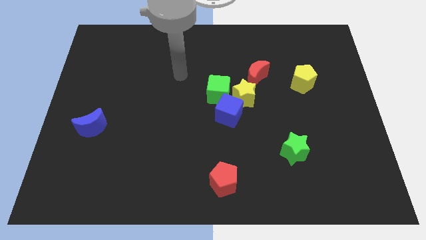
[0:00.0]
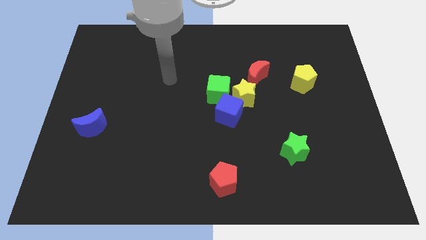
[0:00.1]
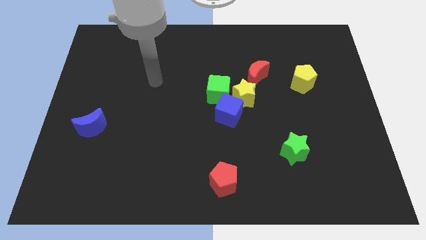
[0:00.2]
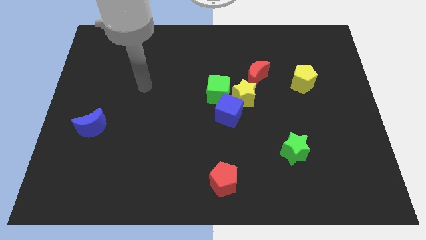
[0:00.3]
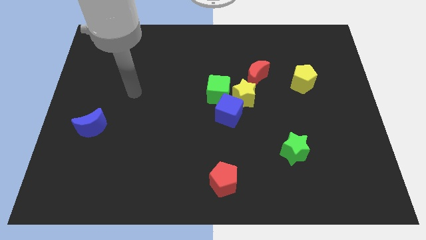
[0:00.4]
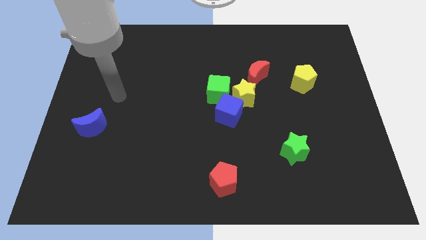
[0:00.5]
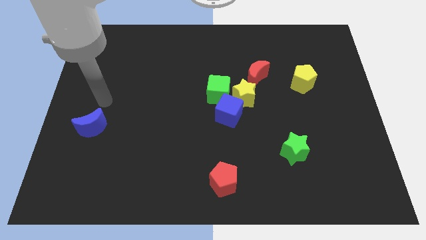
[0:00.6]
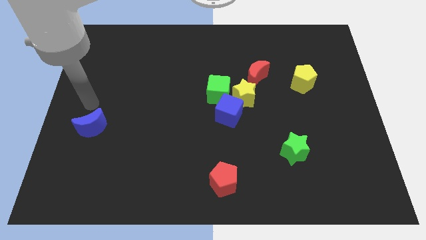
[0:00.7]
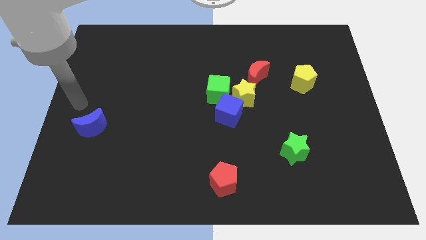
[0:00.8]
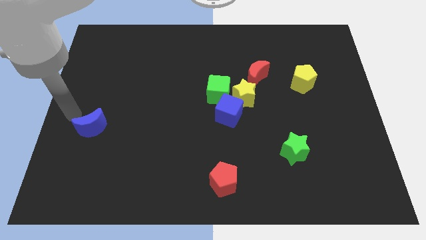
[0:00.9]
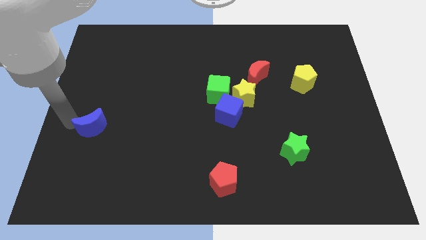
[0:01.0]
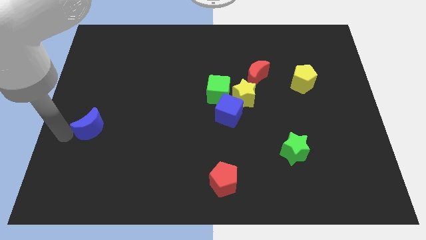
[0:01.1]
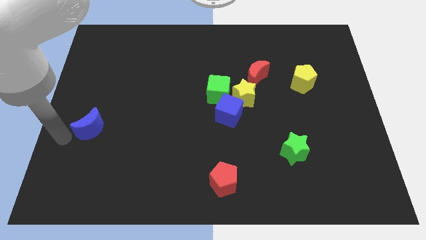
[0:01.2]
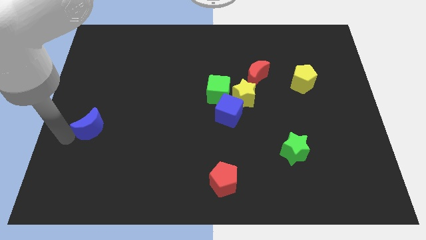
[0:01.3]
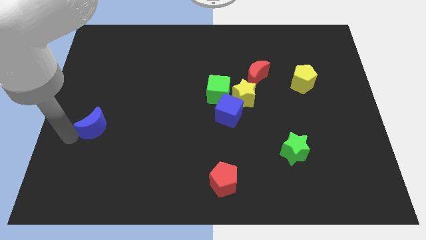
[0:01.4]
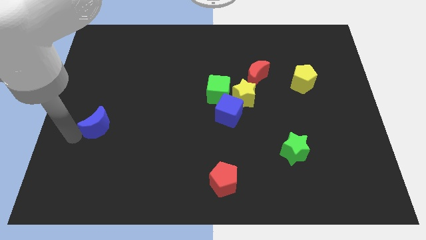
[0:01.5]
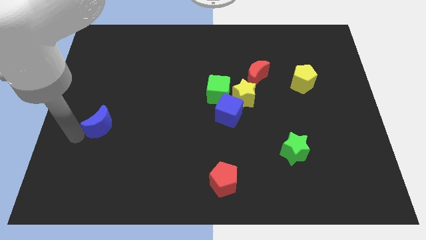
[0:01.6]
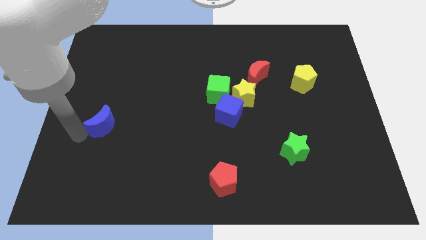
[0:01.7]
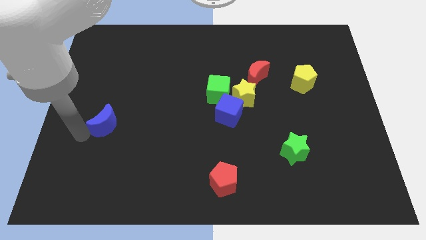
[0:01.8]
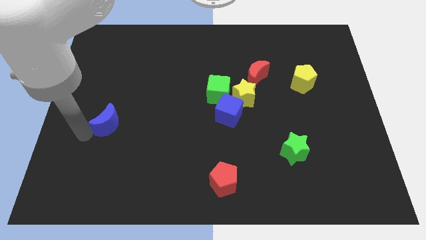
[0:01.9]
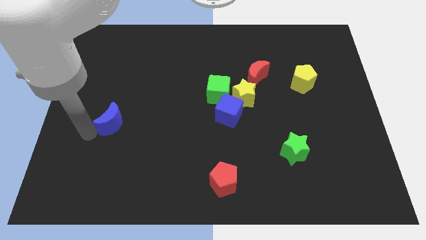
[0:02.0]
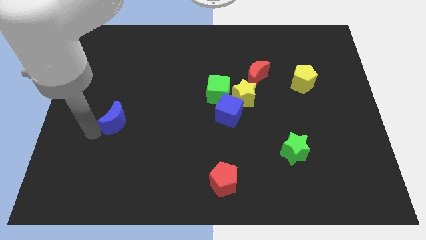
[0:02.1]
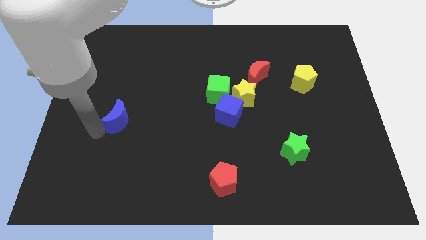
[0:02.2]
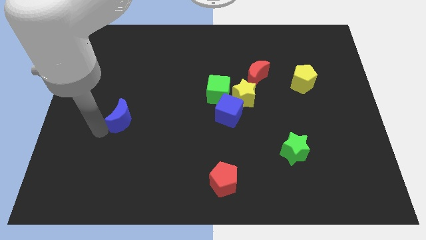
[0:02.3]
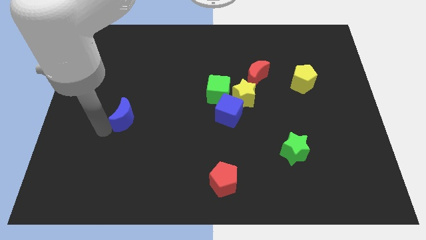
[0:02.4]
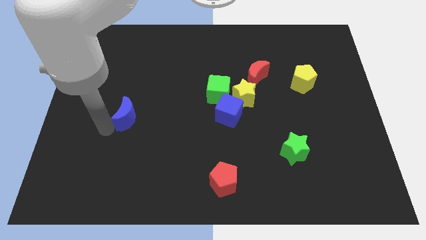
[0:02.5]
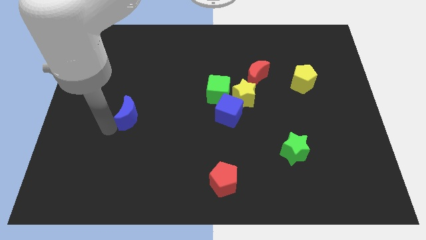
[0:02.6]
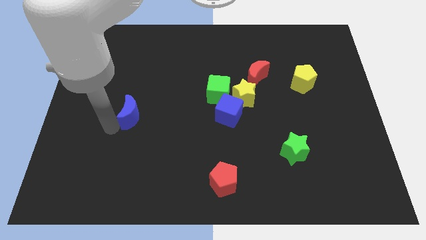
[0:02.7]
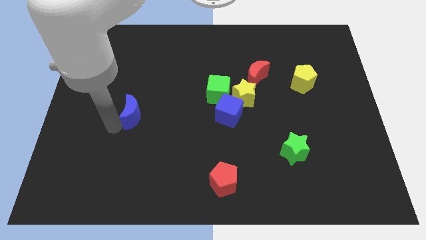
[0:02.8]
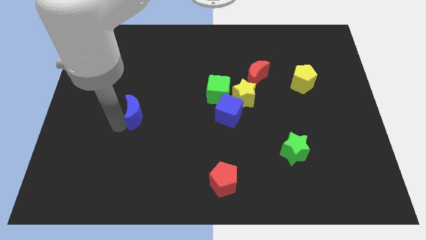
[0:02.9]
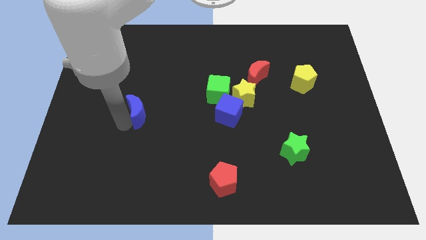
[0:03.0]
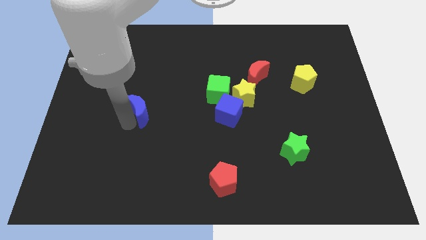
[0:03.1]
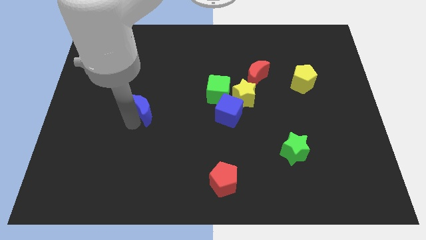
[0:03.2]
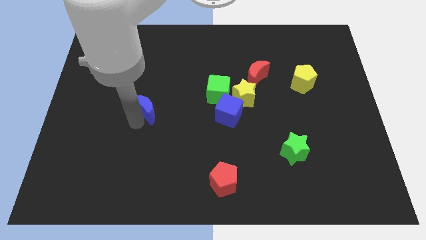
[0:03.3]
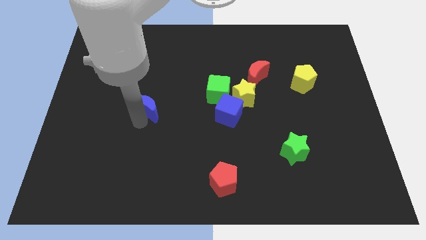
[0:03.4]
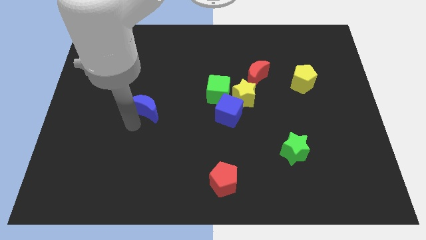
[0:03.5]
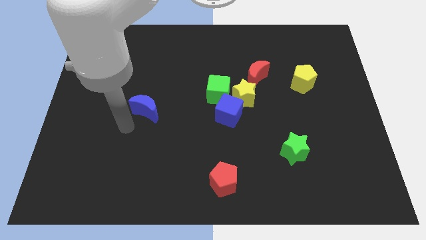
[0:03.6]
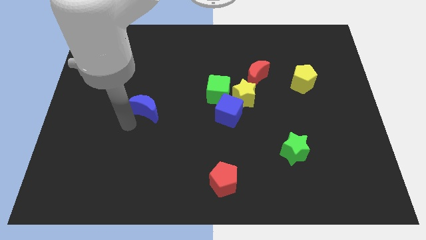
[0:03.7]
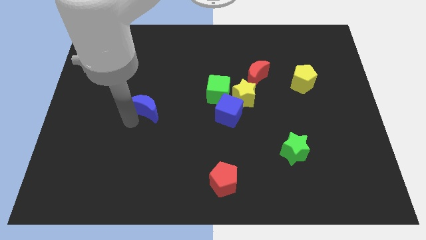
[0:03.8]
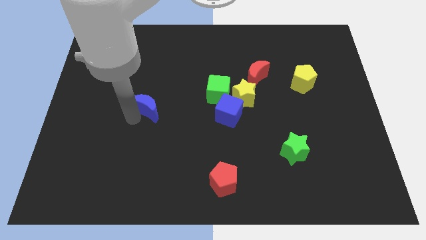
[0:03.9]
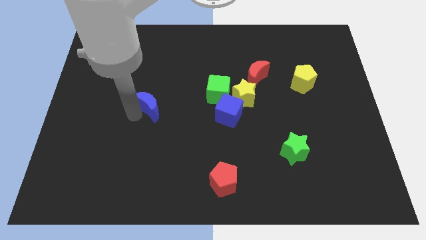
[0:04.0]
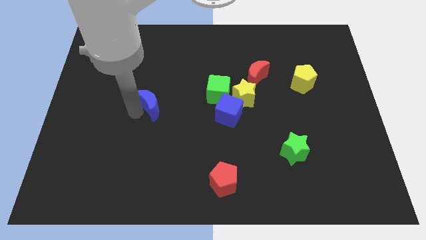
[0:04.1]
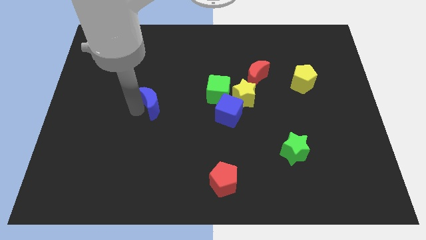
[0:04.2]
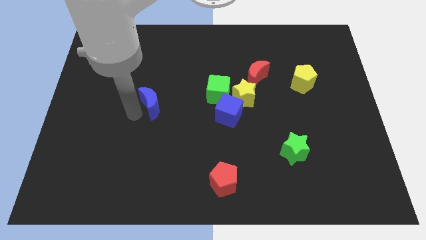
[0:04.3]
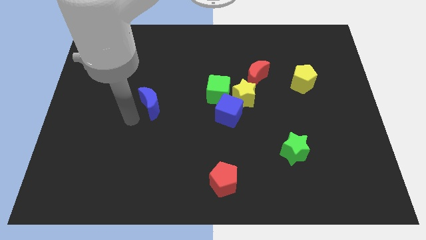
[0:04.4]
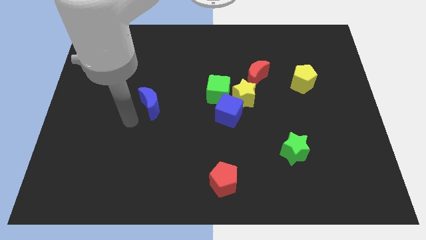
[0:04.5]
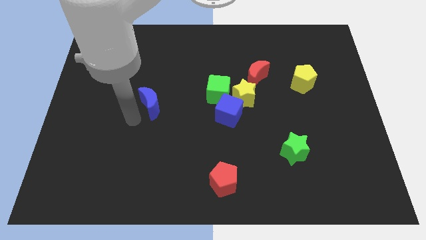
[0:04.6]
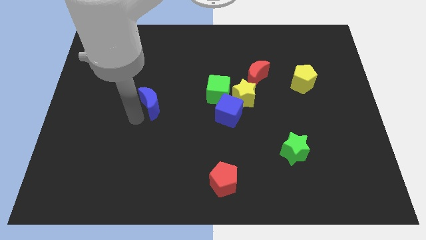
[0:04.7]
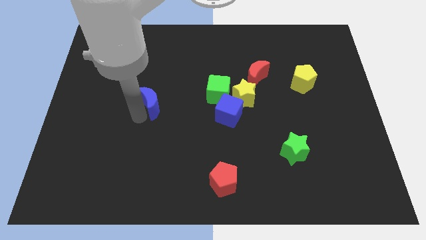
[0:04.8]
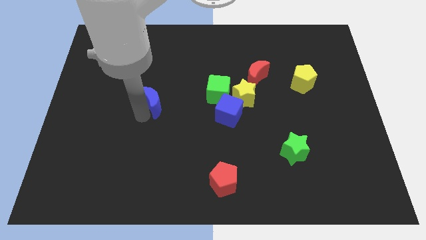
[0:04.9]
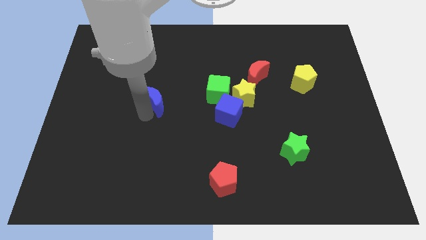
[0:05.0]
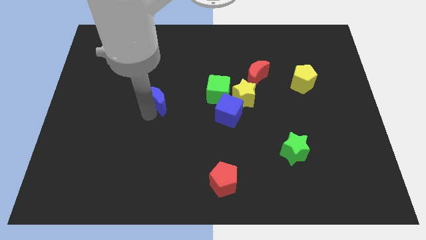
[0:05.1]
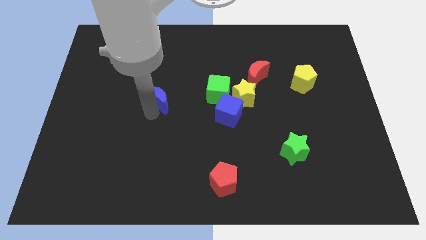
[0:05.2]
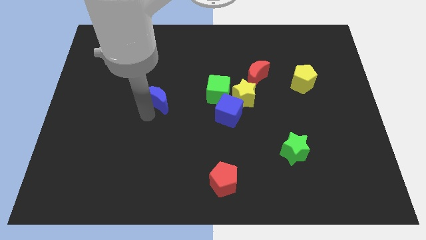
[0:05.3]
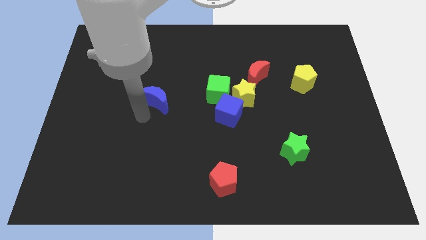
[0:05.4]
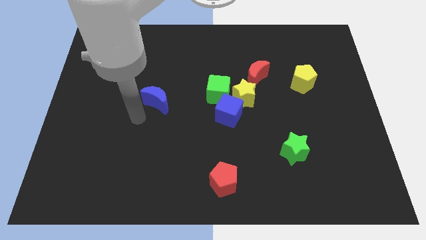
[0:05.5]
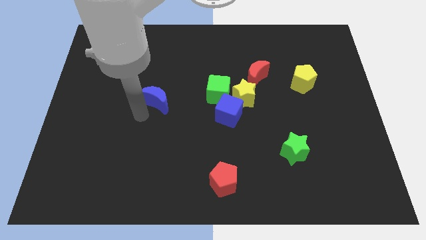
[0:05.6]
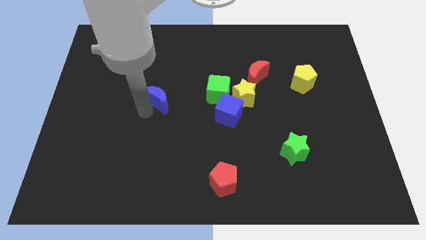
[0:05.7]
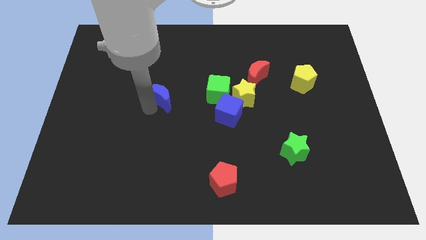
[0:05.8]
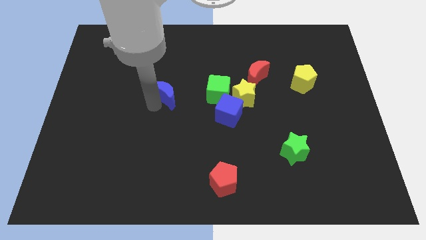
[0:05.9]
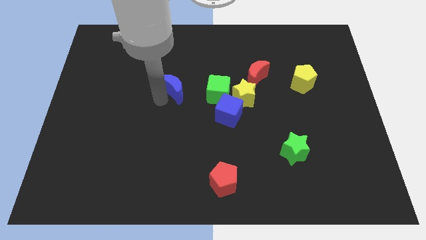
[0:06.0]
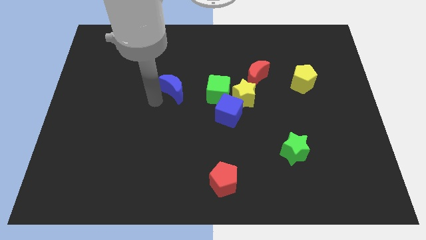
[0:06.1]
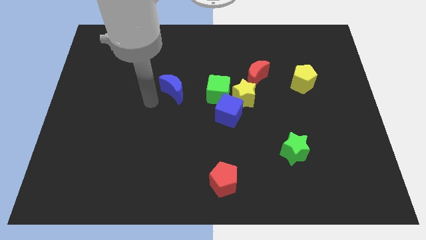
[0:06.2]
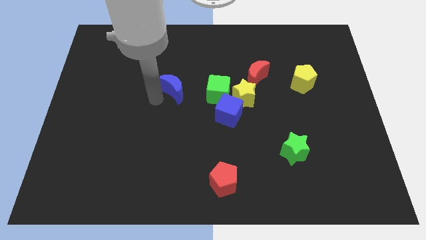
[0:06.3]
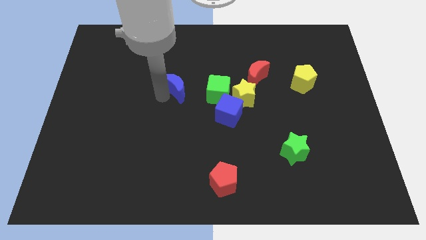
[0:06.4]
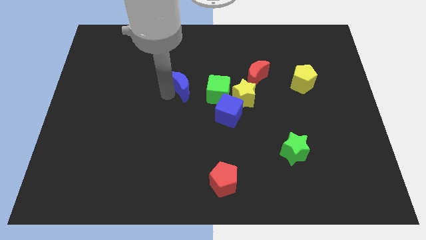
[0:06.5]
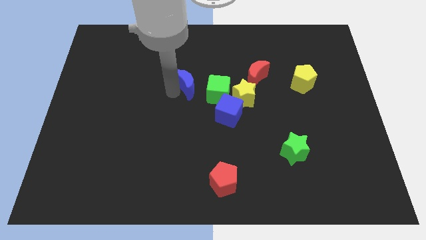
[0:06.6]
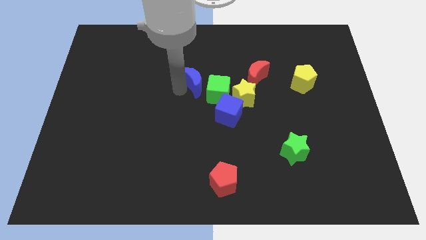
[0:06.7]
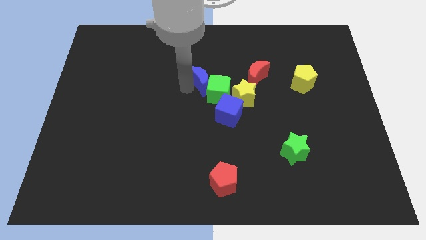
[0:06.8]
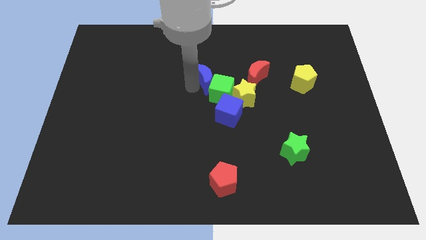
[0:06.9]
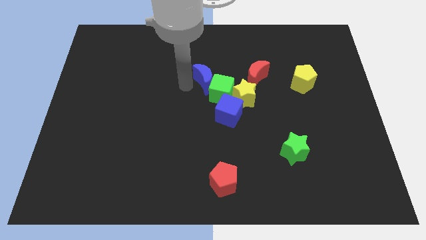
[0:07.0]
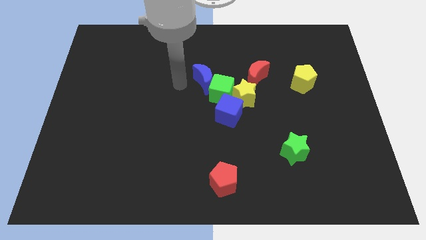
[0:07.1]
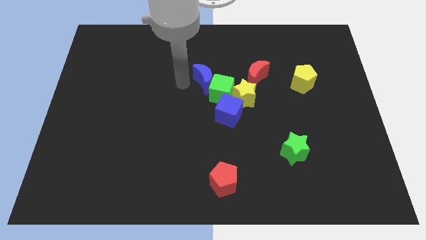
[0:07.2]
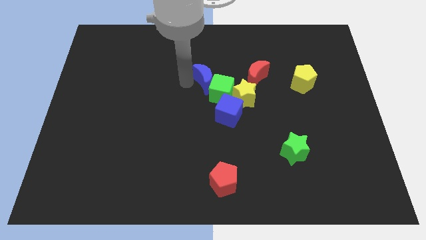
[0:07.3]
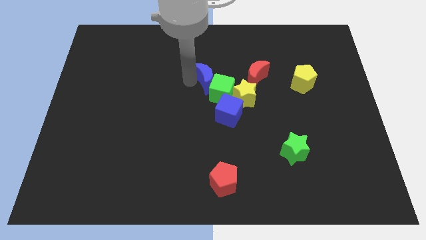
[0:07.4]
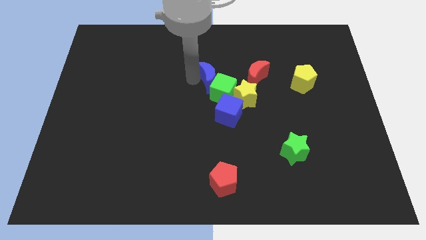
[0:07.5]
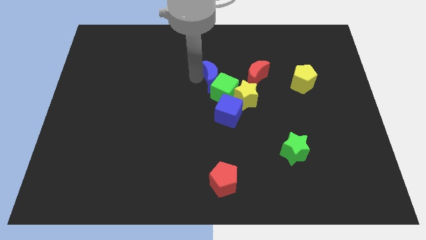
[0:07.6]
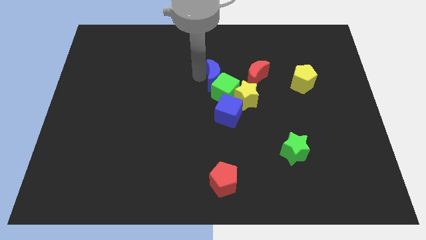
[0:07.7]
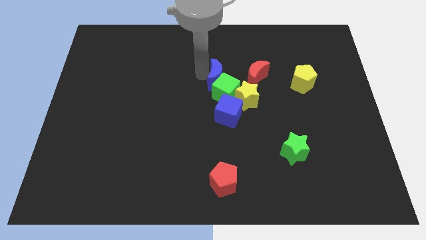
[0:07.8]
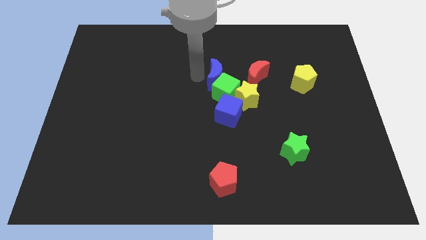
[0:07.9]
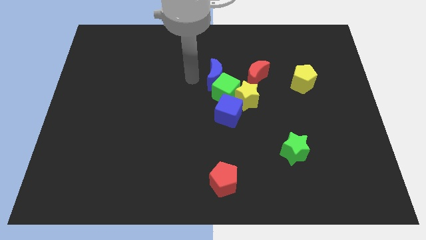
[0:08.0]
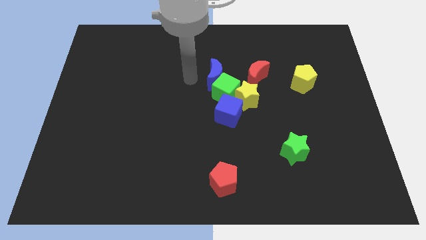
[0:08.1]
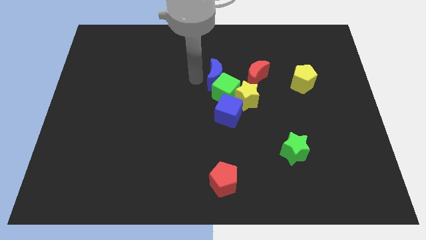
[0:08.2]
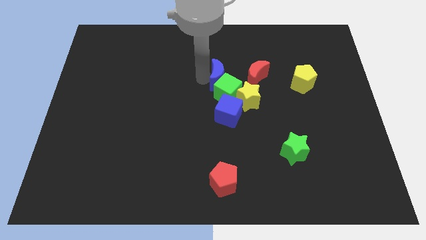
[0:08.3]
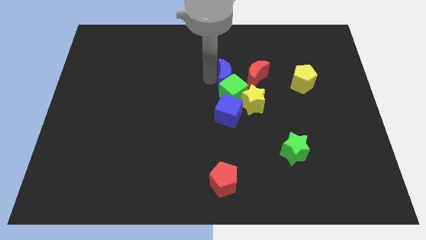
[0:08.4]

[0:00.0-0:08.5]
move the blue moon diagonally up and to the right of the green cube
